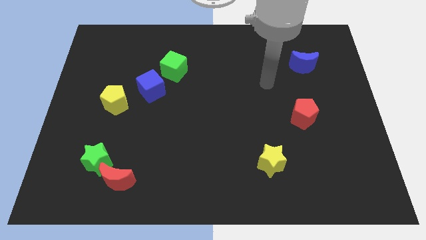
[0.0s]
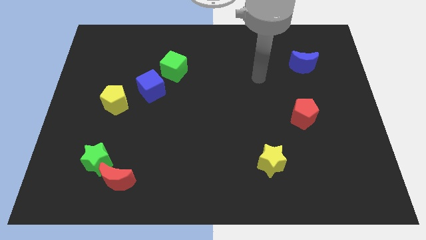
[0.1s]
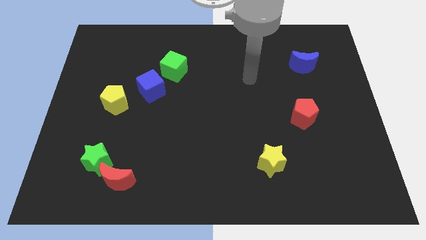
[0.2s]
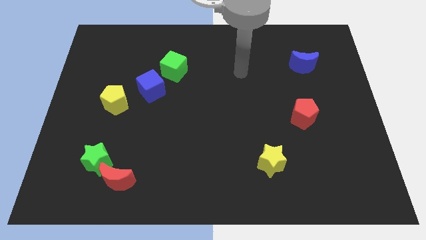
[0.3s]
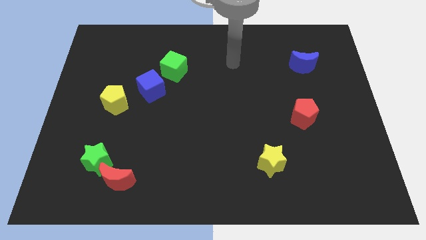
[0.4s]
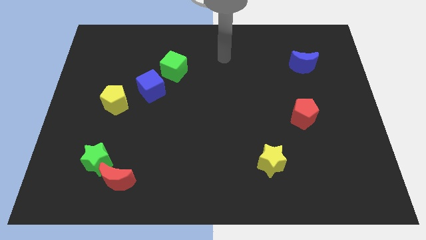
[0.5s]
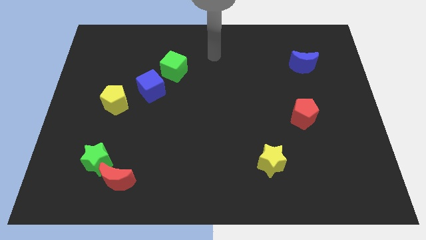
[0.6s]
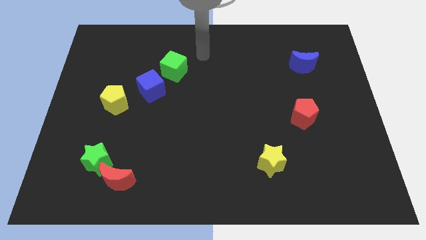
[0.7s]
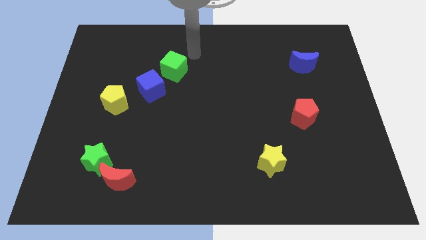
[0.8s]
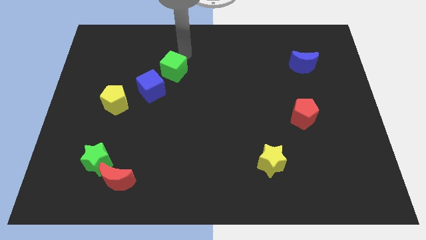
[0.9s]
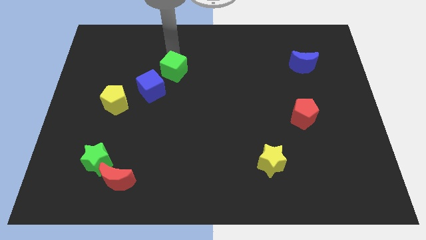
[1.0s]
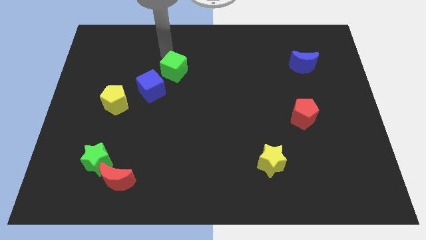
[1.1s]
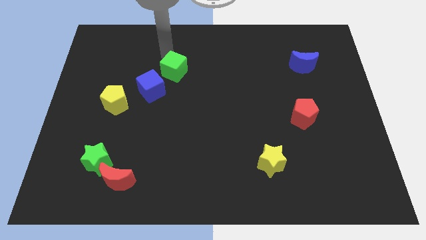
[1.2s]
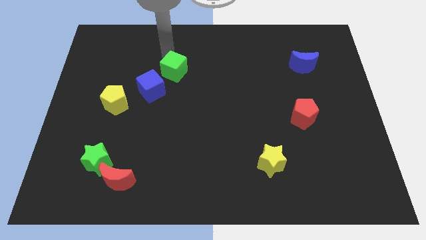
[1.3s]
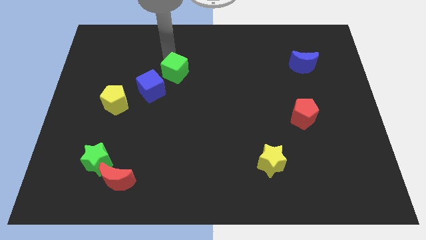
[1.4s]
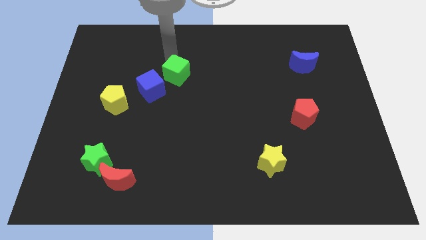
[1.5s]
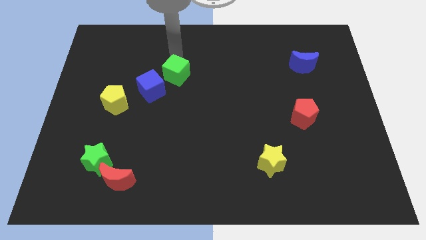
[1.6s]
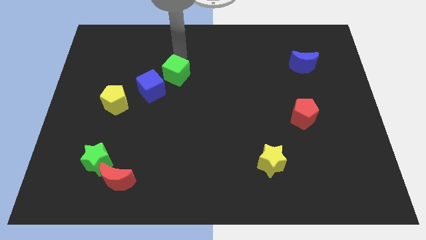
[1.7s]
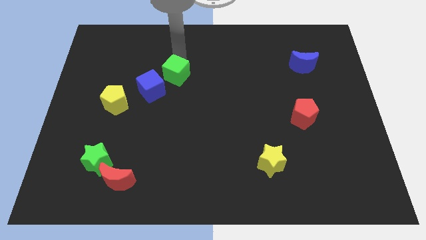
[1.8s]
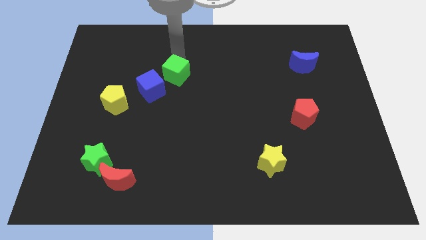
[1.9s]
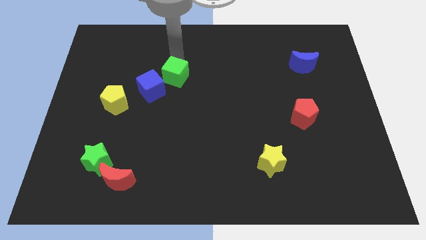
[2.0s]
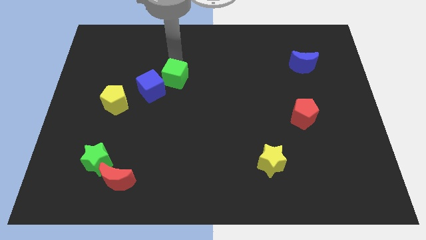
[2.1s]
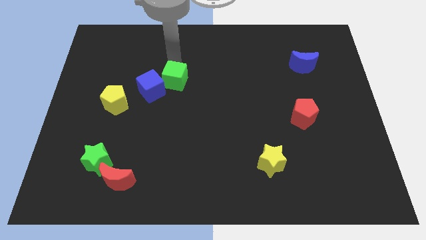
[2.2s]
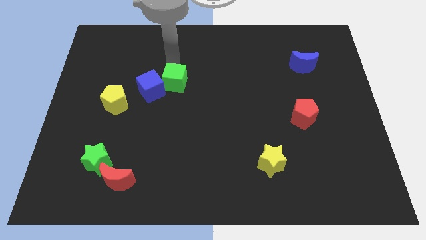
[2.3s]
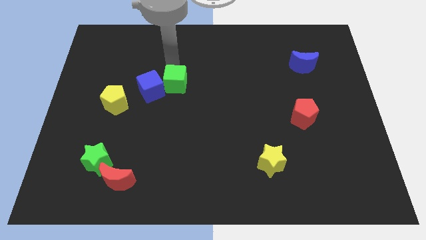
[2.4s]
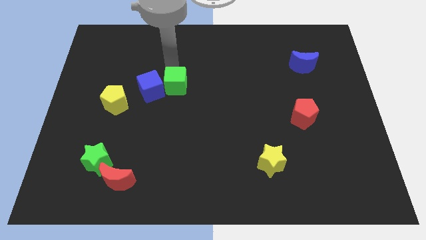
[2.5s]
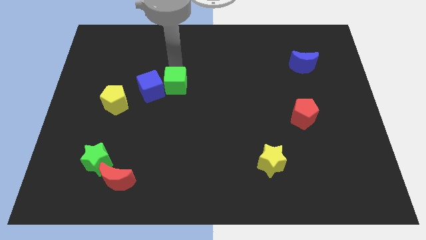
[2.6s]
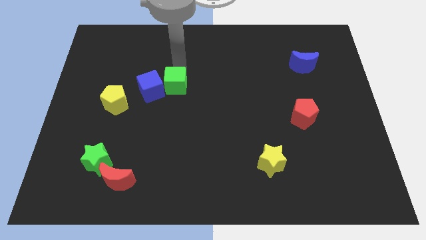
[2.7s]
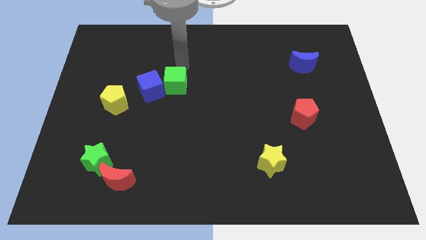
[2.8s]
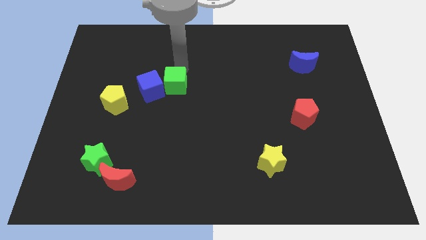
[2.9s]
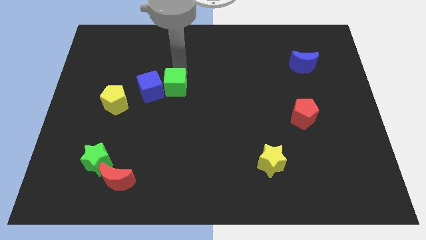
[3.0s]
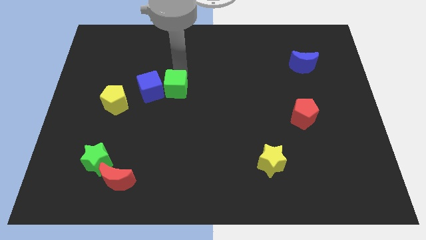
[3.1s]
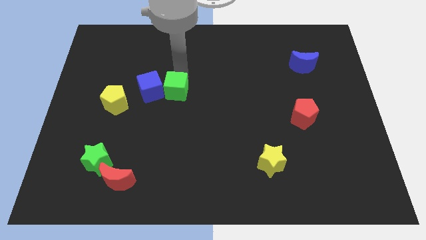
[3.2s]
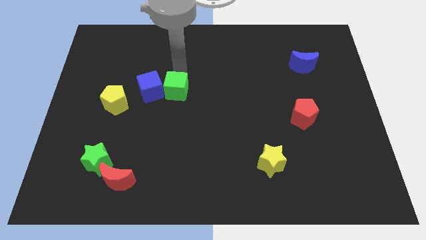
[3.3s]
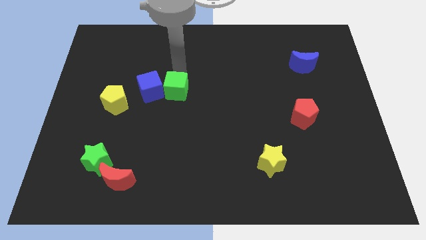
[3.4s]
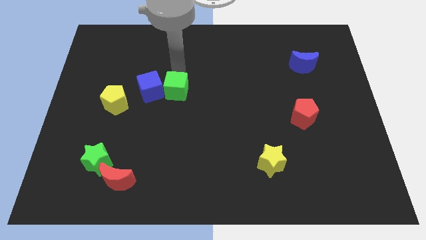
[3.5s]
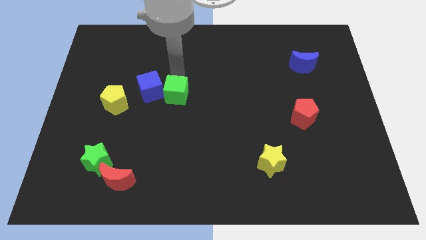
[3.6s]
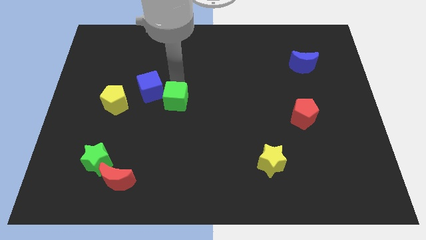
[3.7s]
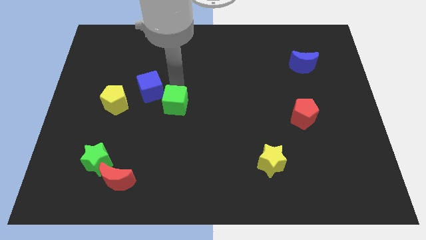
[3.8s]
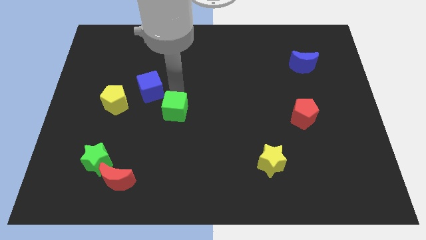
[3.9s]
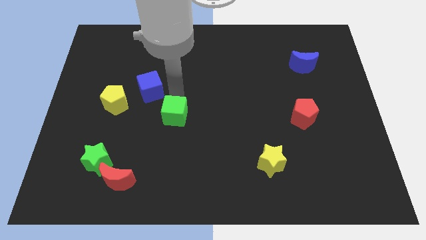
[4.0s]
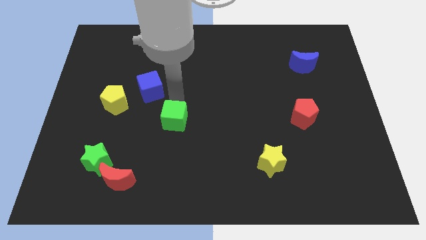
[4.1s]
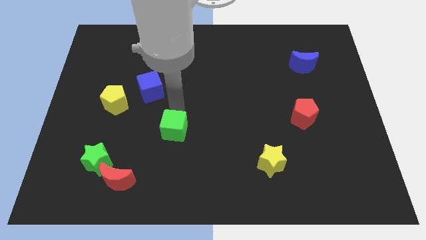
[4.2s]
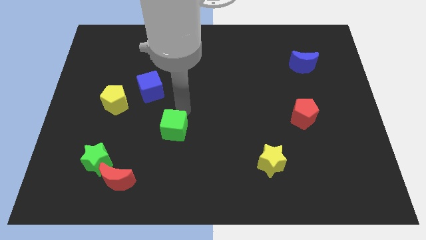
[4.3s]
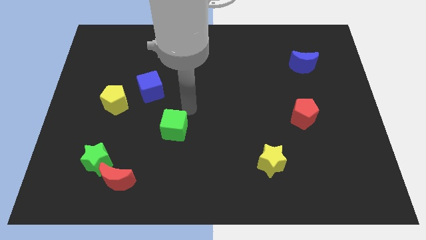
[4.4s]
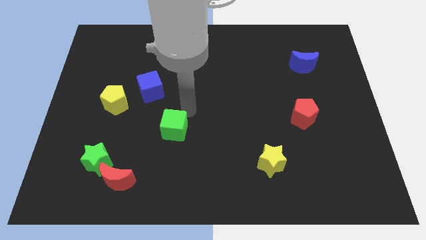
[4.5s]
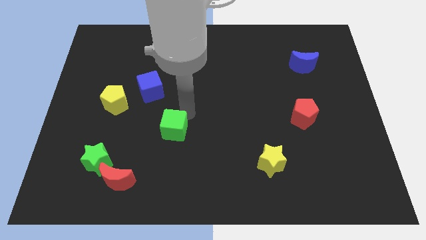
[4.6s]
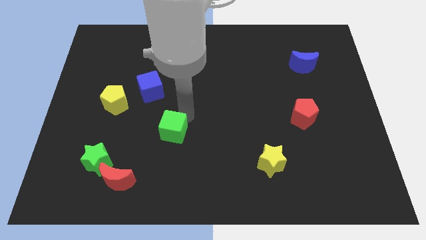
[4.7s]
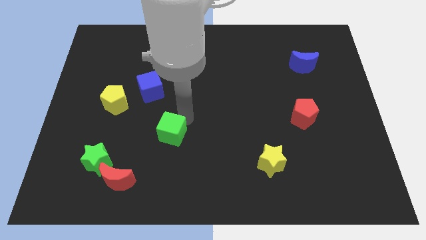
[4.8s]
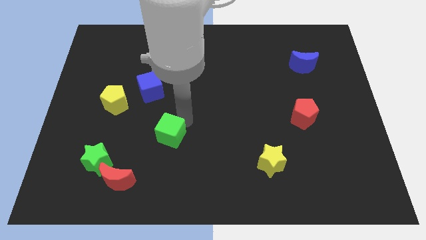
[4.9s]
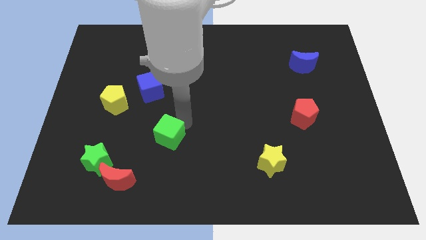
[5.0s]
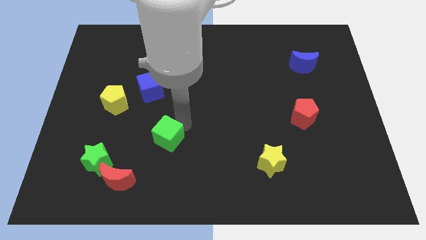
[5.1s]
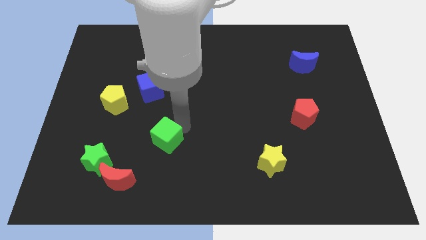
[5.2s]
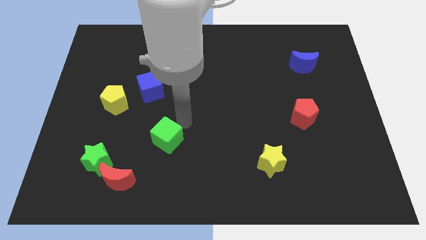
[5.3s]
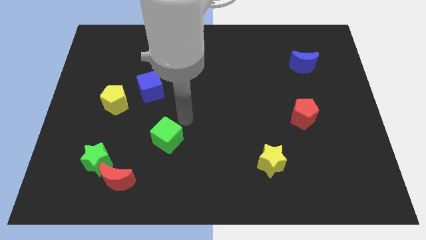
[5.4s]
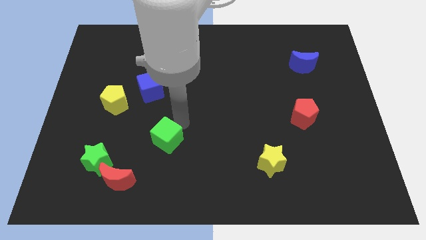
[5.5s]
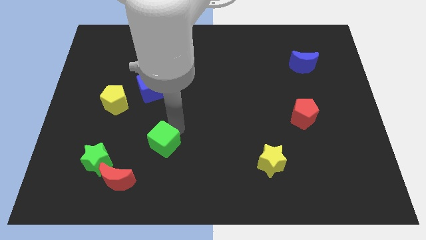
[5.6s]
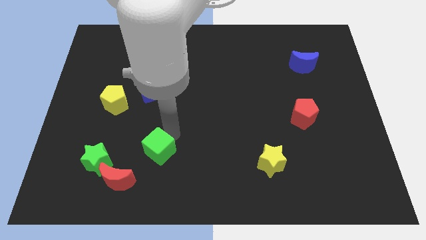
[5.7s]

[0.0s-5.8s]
move the green cube to the right side of the green star
